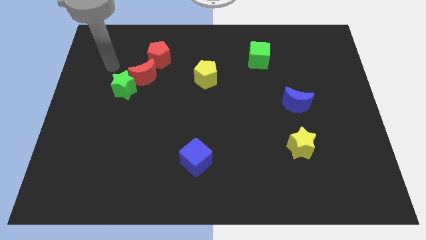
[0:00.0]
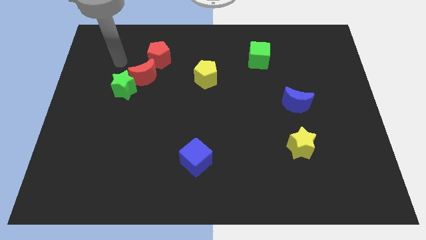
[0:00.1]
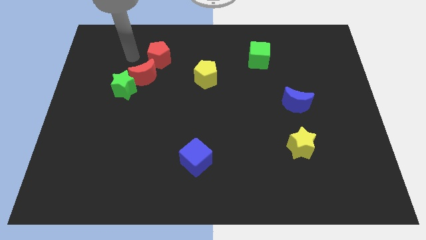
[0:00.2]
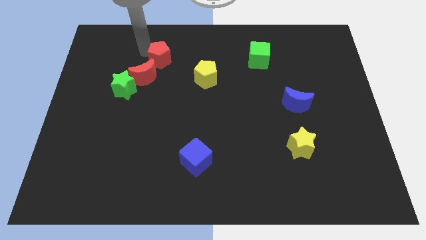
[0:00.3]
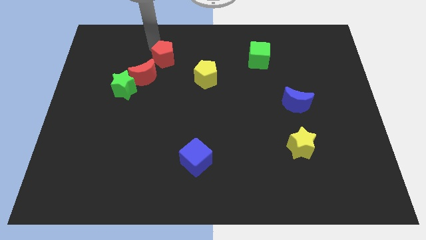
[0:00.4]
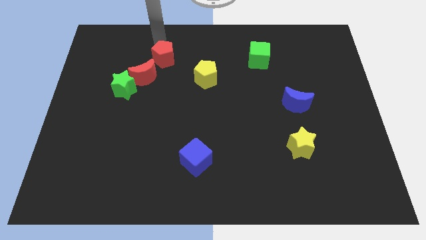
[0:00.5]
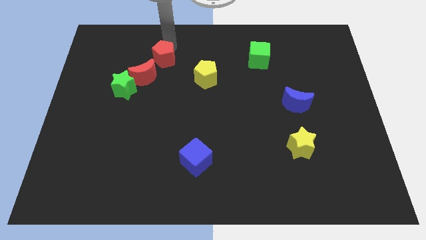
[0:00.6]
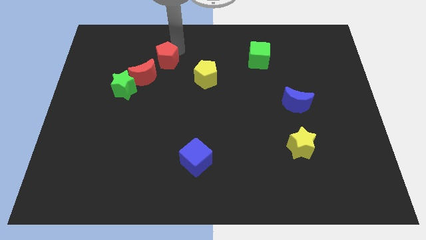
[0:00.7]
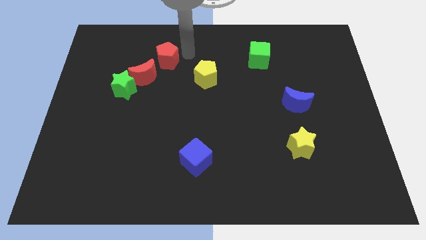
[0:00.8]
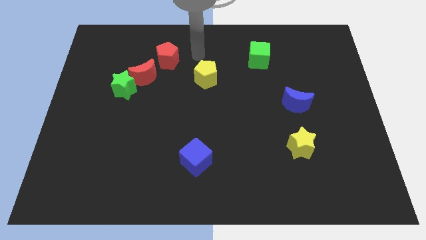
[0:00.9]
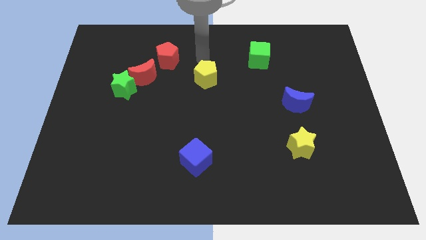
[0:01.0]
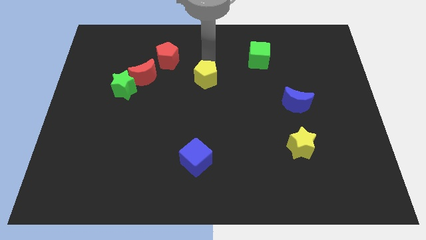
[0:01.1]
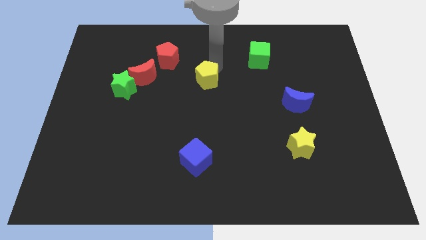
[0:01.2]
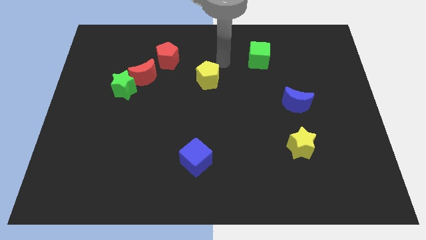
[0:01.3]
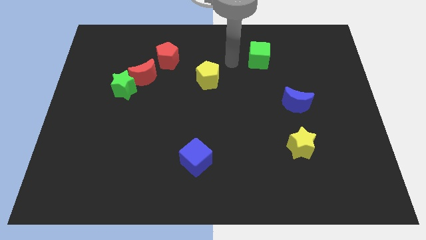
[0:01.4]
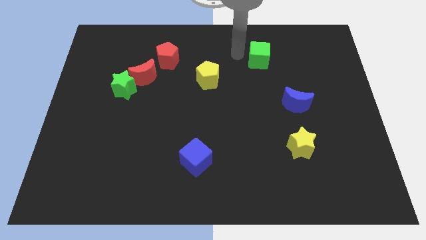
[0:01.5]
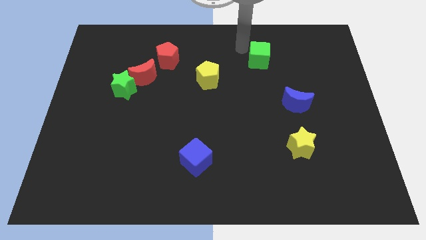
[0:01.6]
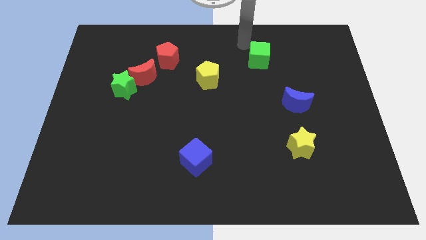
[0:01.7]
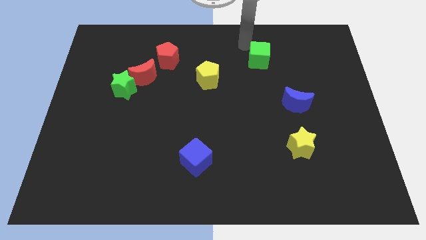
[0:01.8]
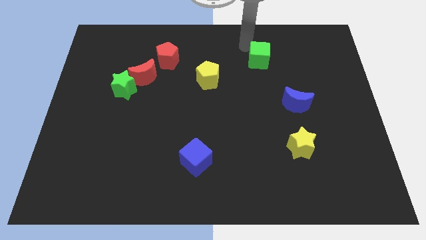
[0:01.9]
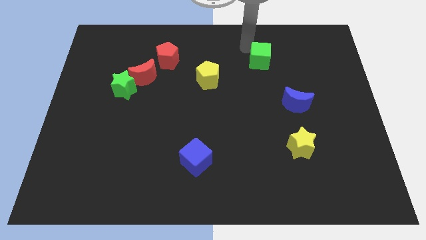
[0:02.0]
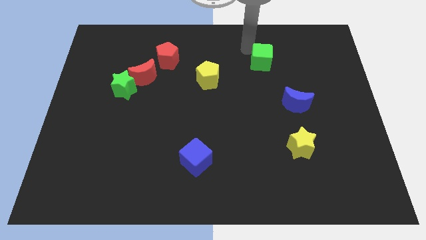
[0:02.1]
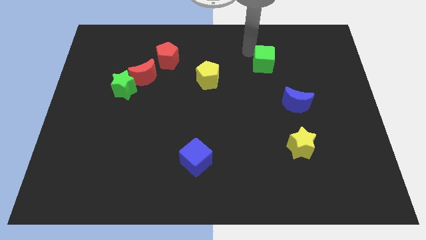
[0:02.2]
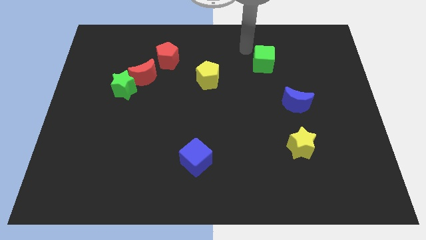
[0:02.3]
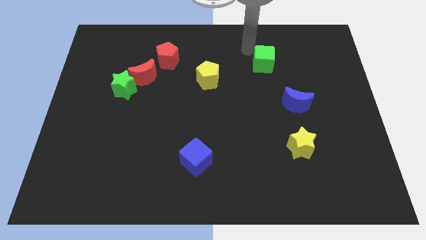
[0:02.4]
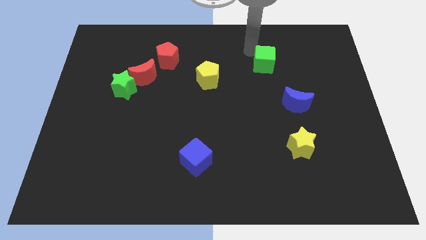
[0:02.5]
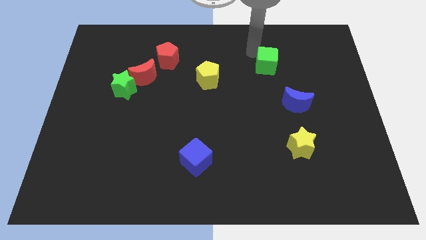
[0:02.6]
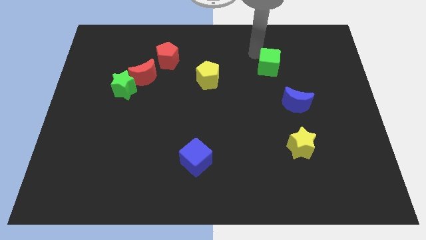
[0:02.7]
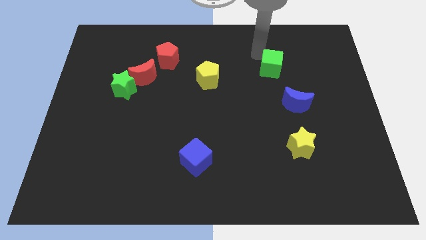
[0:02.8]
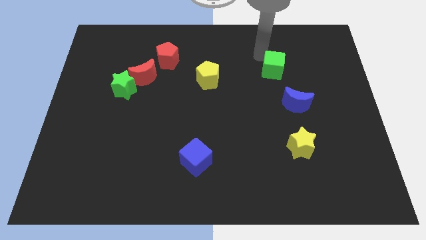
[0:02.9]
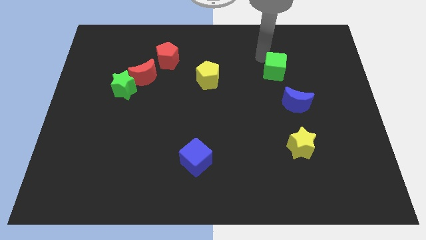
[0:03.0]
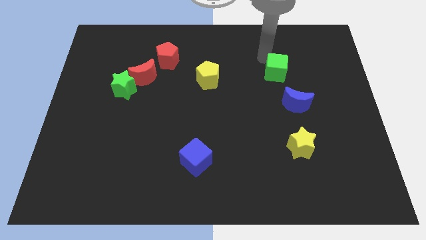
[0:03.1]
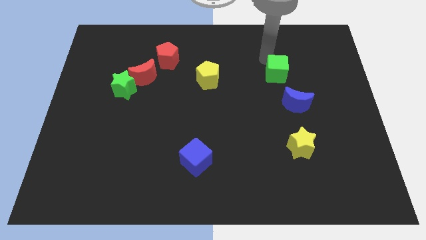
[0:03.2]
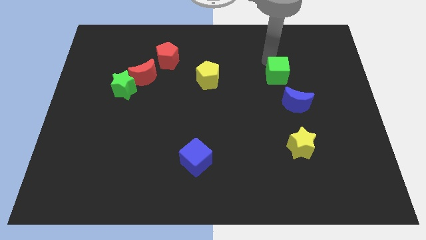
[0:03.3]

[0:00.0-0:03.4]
move the green cube a bit diagonally down and to the right

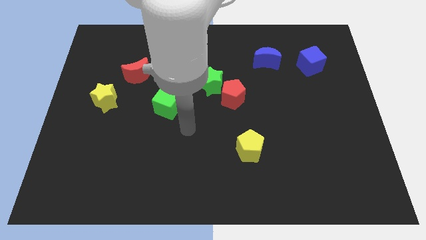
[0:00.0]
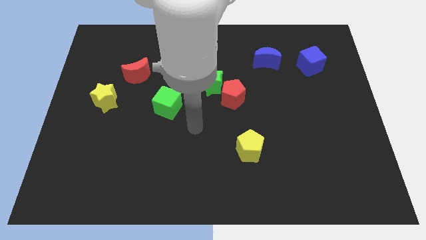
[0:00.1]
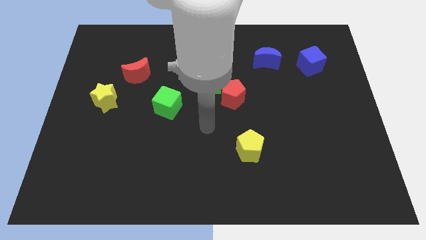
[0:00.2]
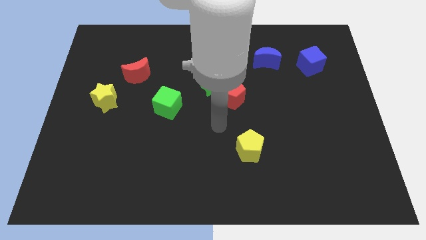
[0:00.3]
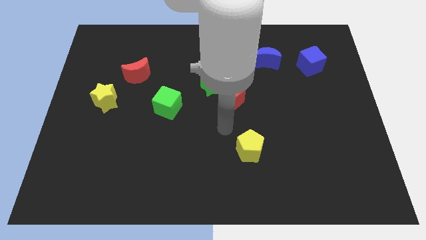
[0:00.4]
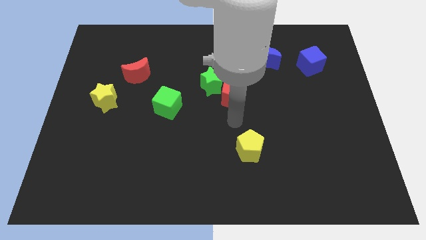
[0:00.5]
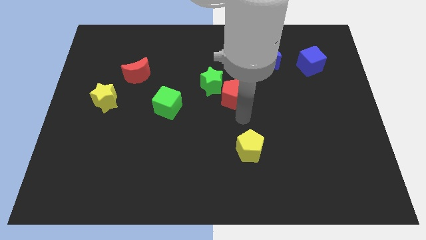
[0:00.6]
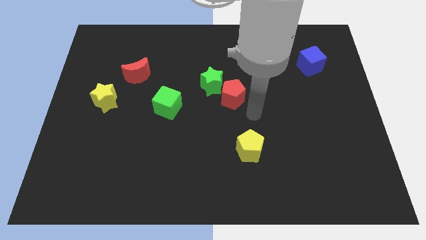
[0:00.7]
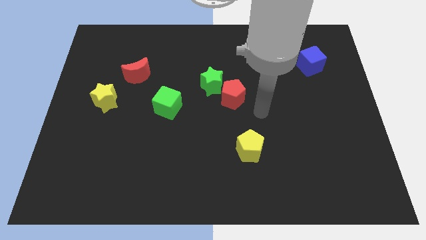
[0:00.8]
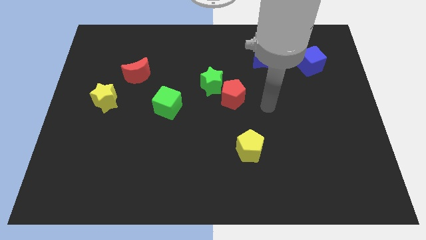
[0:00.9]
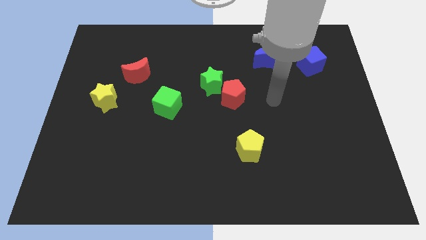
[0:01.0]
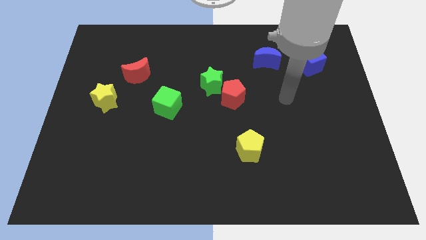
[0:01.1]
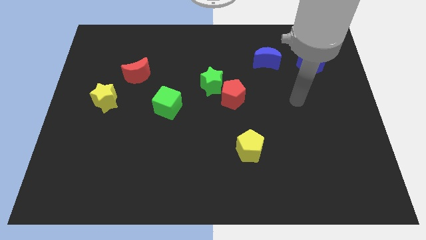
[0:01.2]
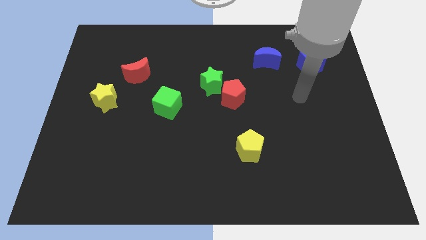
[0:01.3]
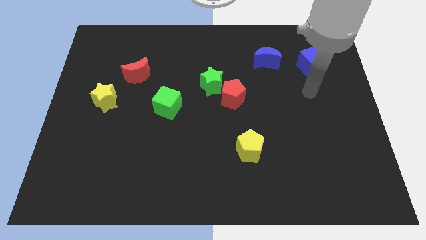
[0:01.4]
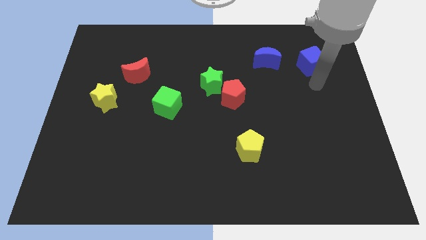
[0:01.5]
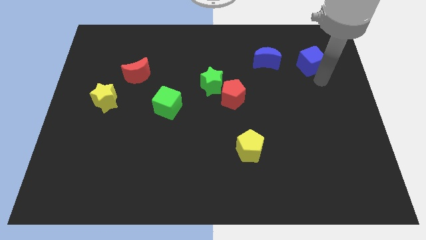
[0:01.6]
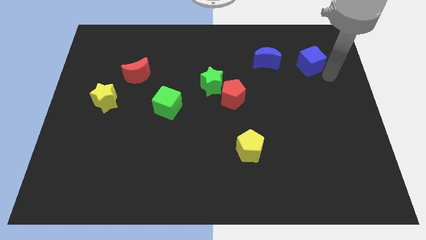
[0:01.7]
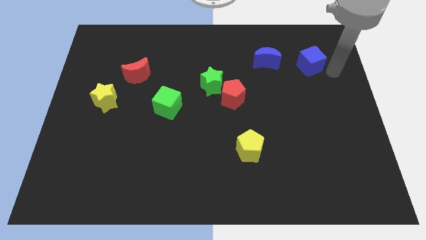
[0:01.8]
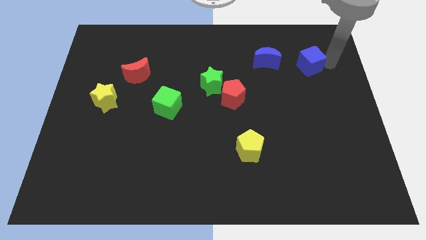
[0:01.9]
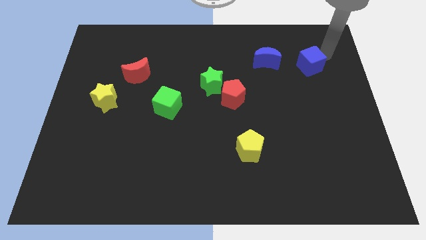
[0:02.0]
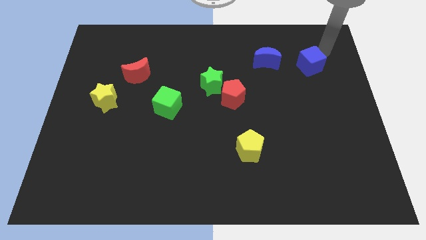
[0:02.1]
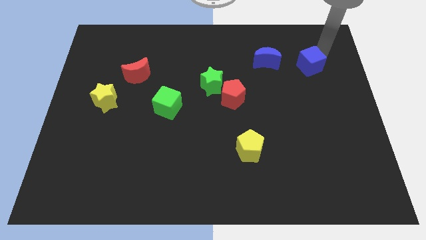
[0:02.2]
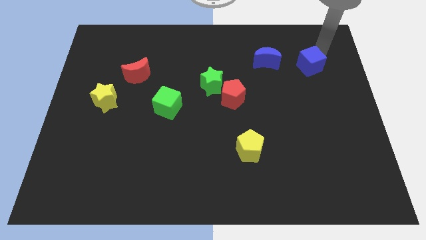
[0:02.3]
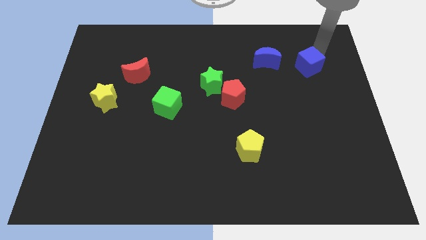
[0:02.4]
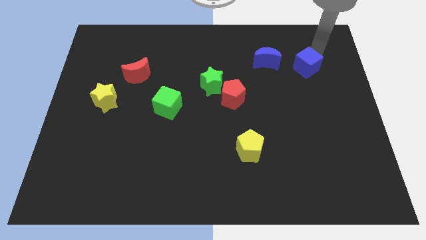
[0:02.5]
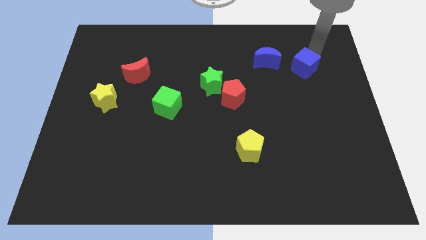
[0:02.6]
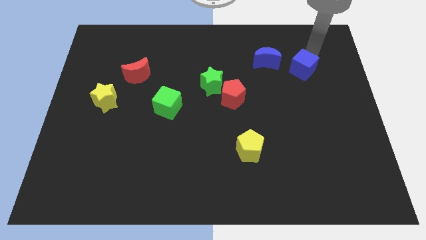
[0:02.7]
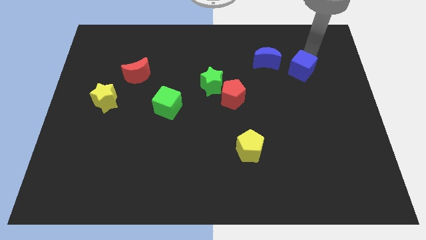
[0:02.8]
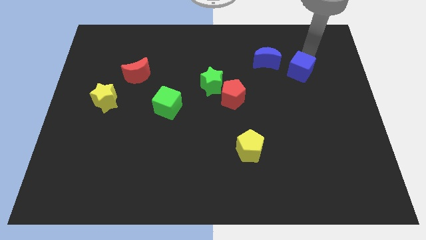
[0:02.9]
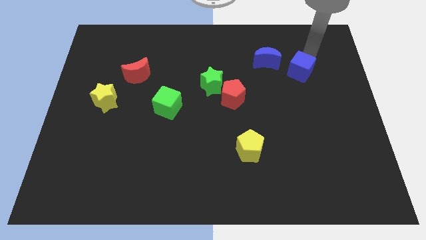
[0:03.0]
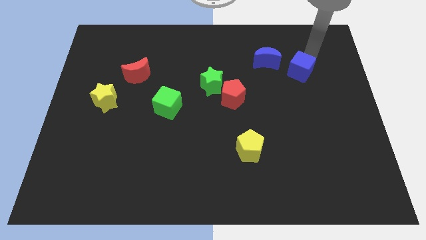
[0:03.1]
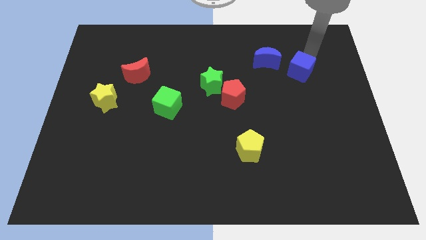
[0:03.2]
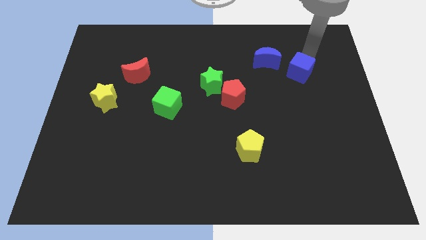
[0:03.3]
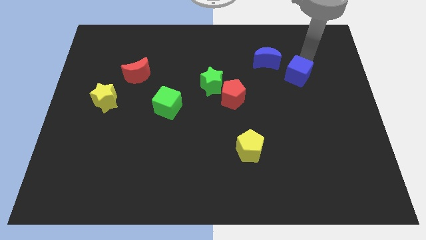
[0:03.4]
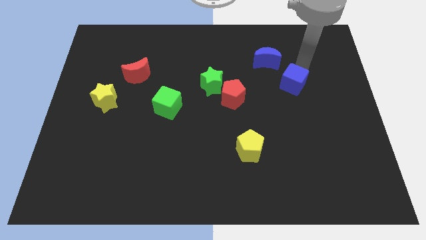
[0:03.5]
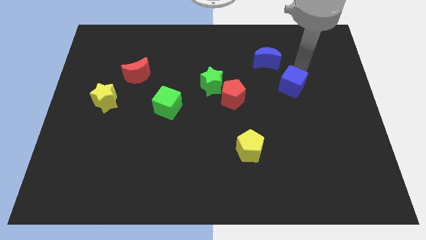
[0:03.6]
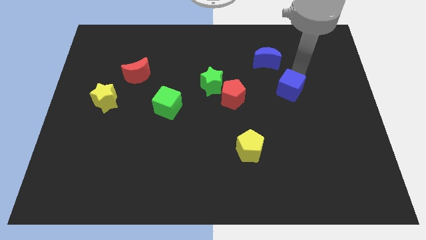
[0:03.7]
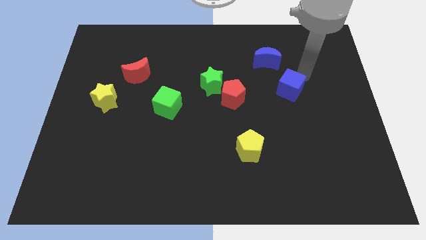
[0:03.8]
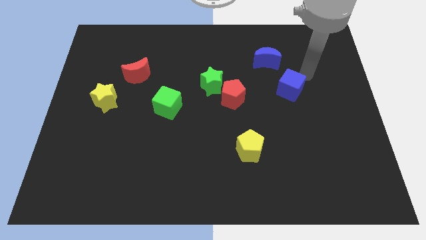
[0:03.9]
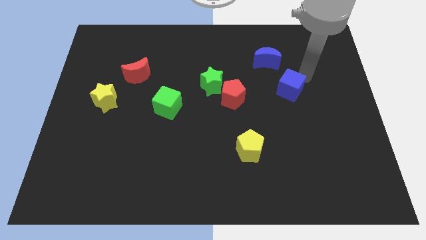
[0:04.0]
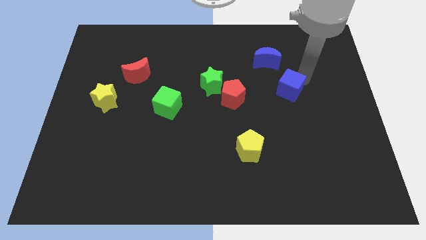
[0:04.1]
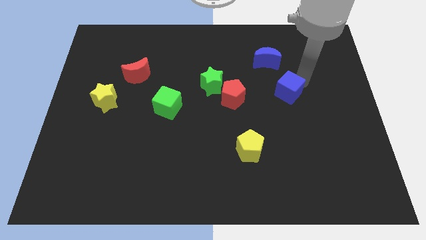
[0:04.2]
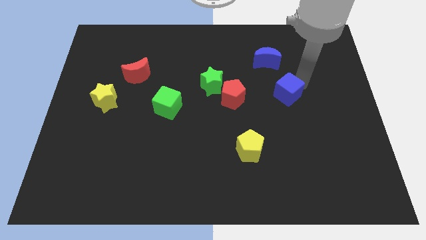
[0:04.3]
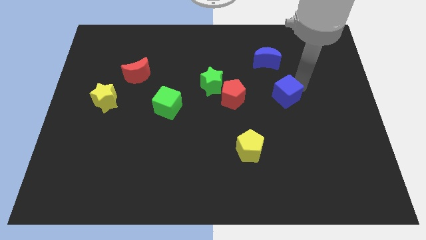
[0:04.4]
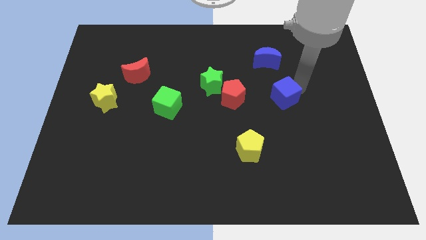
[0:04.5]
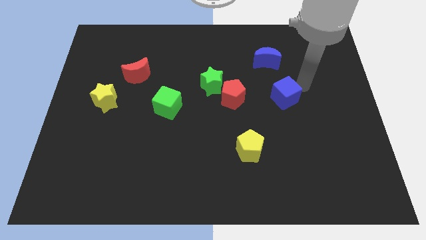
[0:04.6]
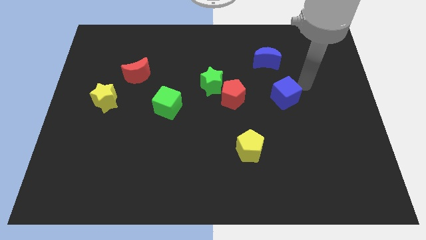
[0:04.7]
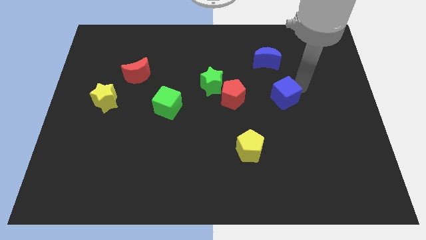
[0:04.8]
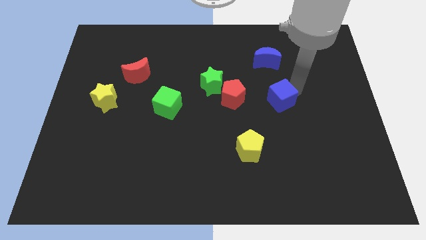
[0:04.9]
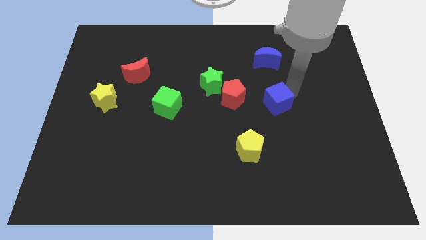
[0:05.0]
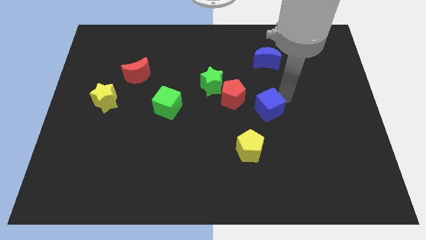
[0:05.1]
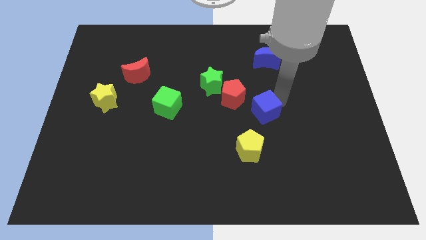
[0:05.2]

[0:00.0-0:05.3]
push the blue cube down and then left
